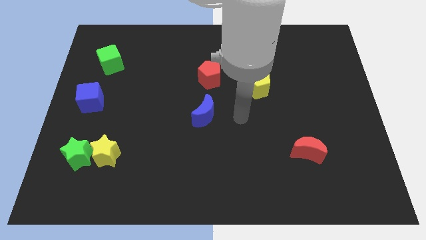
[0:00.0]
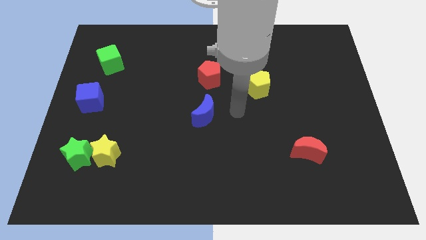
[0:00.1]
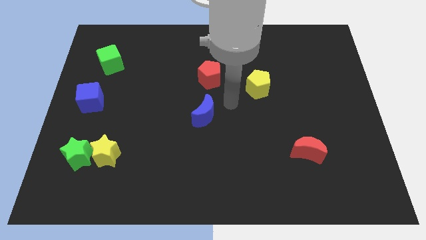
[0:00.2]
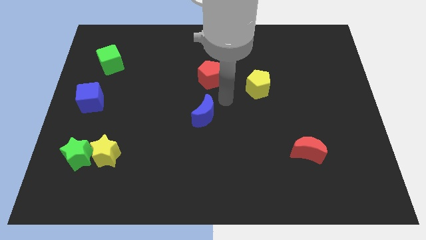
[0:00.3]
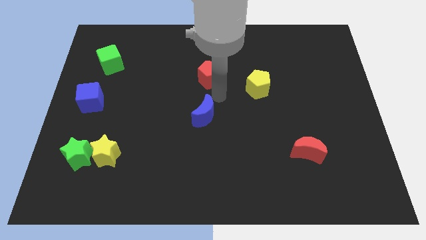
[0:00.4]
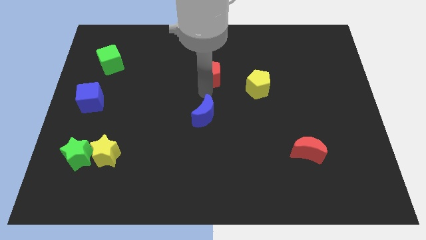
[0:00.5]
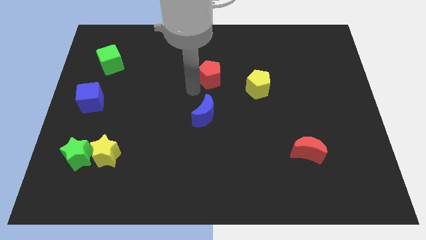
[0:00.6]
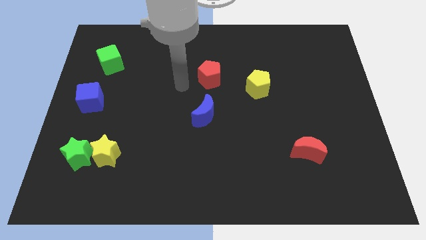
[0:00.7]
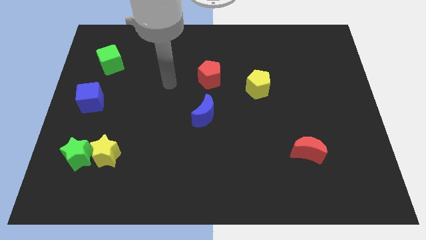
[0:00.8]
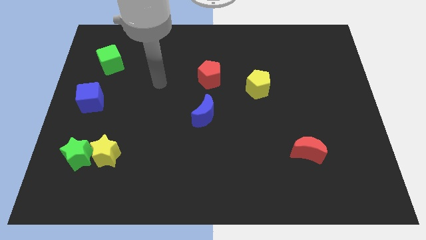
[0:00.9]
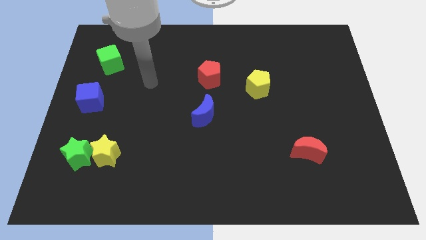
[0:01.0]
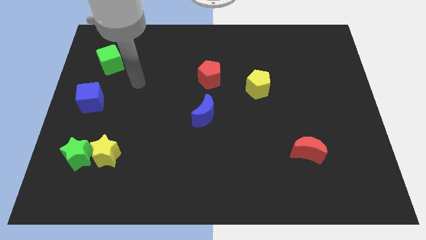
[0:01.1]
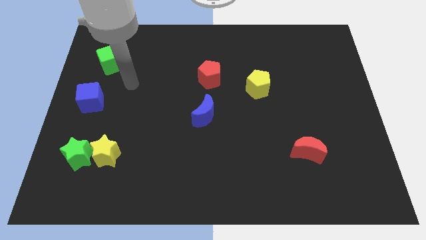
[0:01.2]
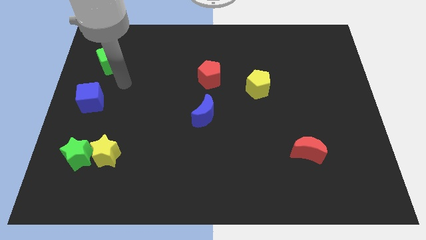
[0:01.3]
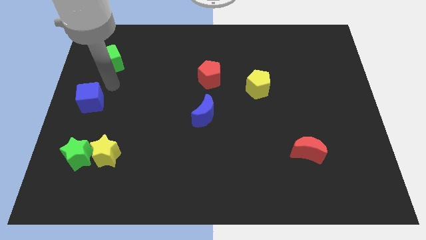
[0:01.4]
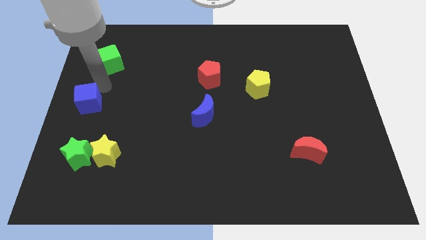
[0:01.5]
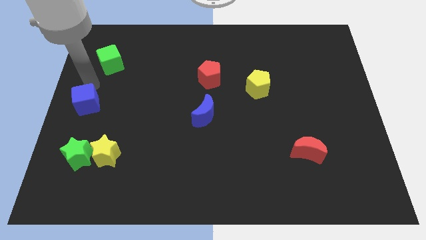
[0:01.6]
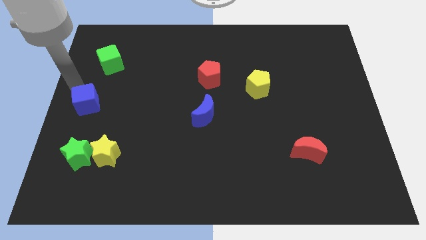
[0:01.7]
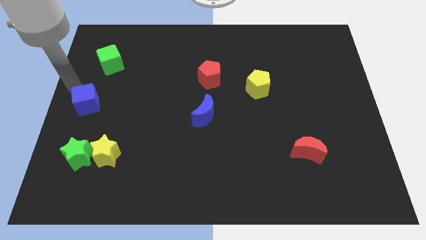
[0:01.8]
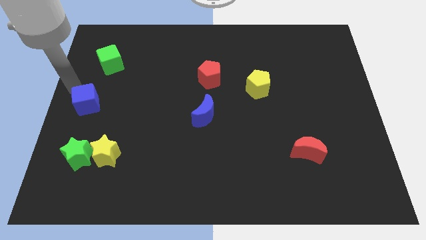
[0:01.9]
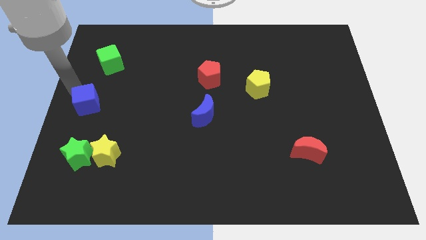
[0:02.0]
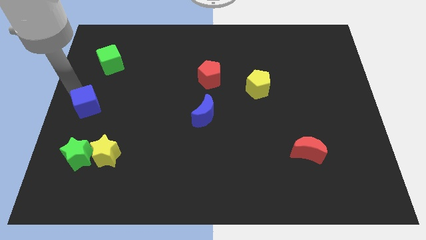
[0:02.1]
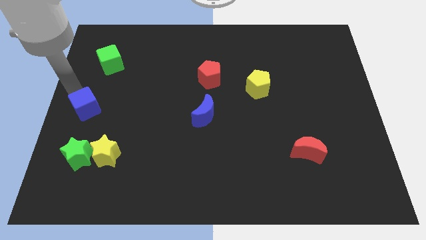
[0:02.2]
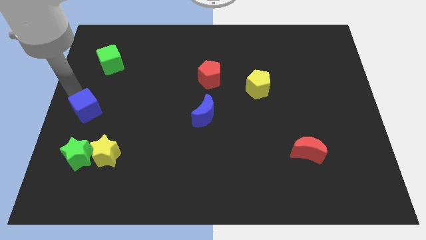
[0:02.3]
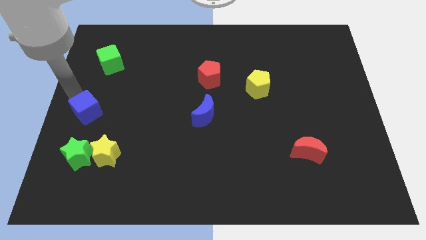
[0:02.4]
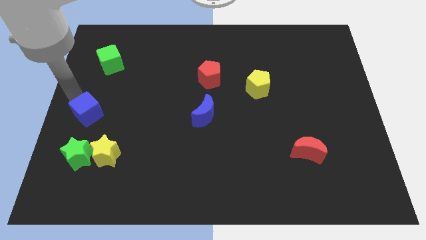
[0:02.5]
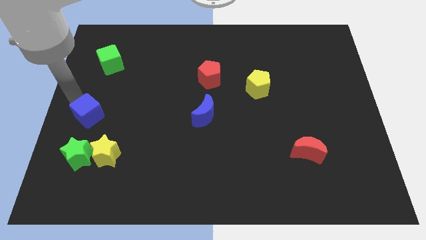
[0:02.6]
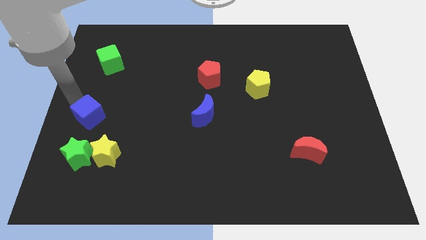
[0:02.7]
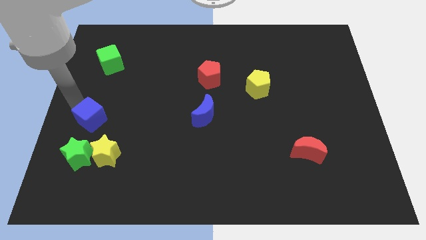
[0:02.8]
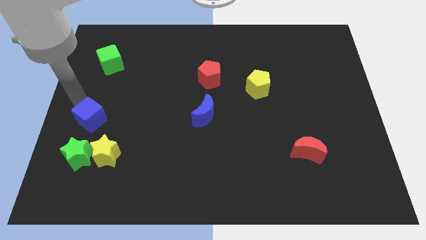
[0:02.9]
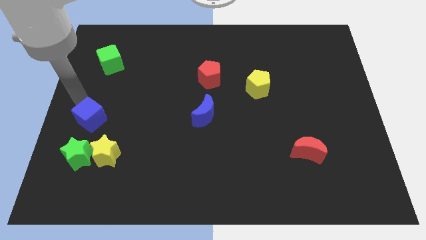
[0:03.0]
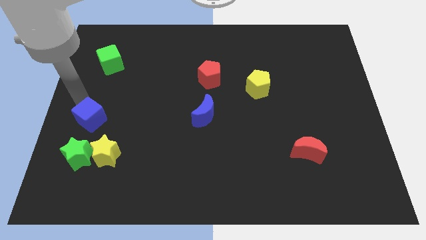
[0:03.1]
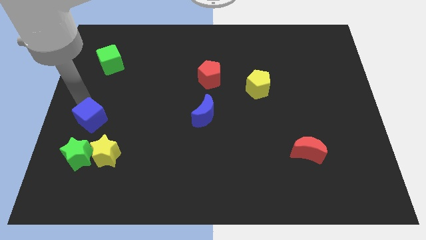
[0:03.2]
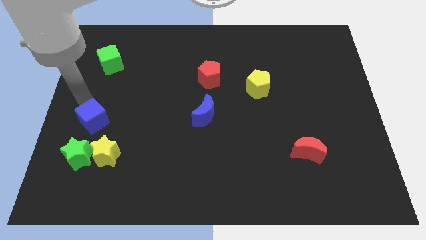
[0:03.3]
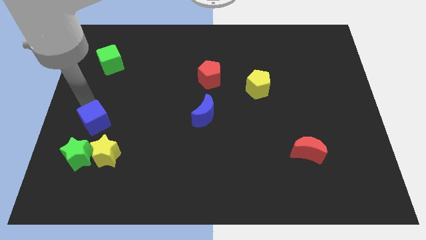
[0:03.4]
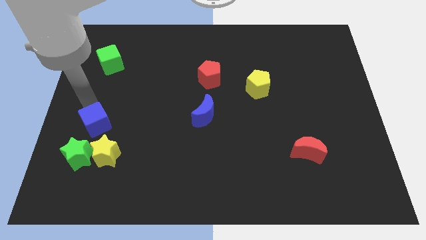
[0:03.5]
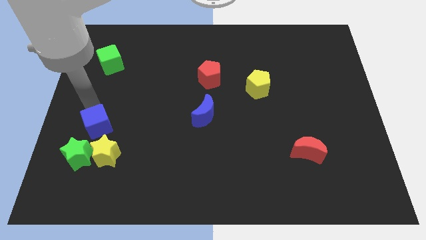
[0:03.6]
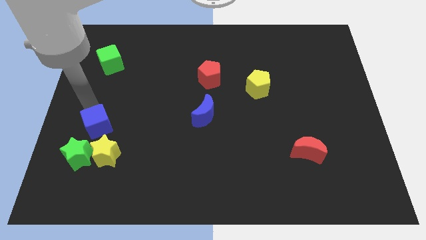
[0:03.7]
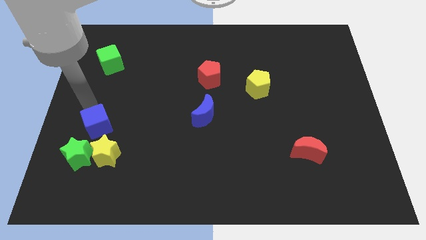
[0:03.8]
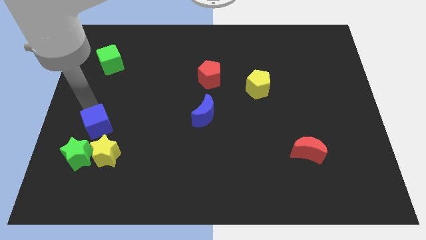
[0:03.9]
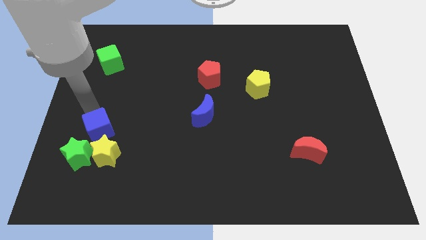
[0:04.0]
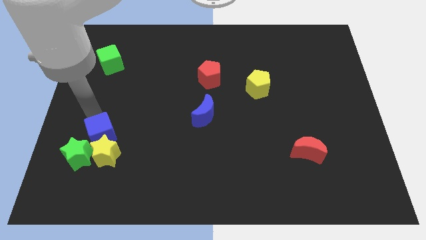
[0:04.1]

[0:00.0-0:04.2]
move the blue cube close to the yellow star

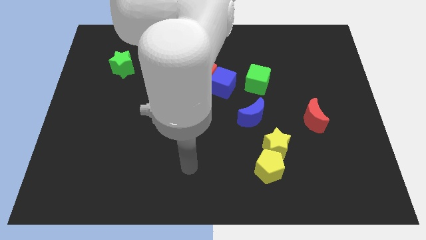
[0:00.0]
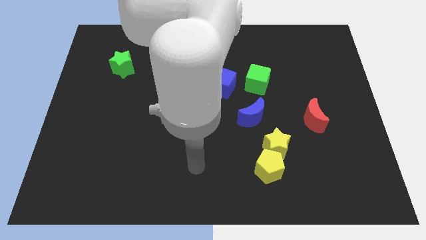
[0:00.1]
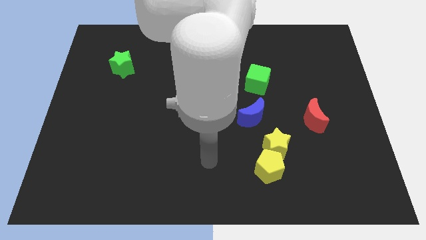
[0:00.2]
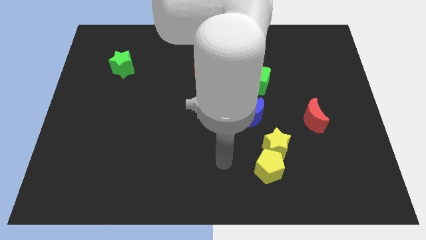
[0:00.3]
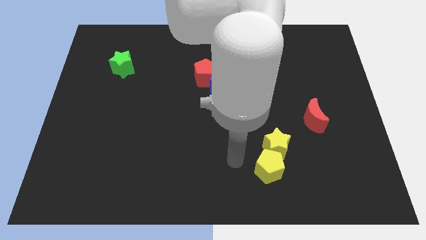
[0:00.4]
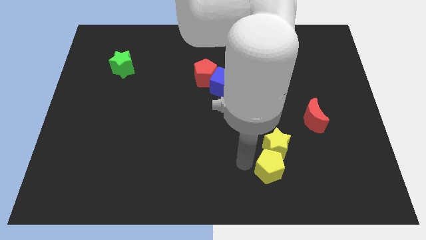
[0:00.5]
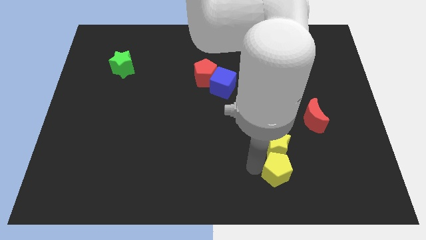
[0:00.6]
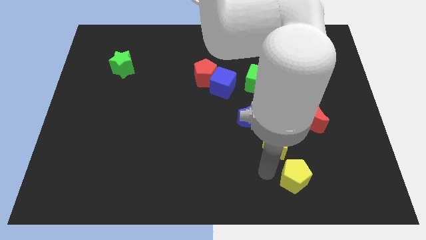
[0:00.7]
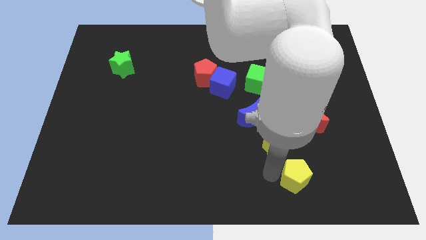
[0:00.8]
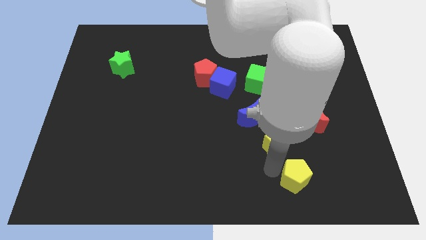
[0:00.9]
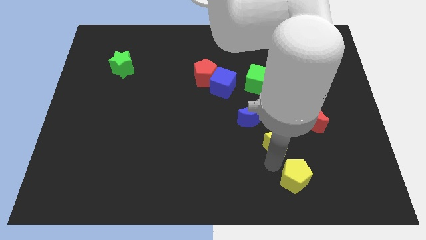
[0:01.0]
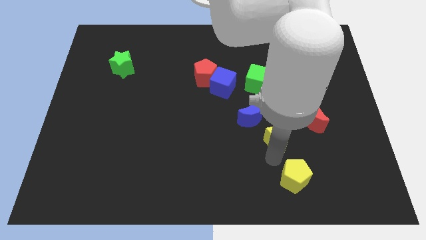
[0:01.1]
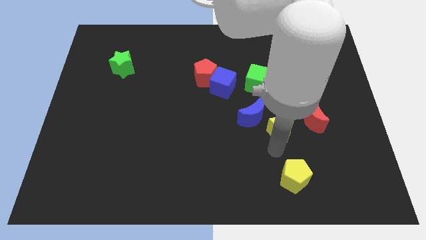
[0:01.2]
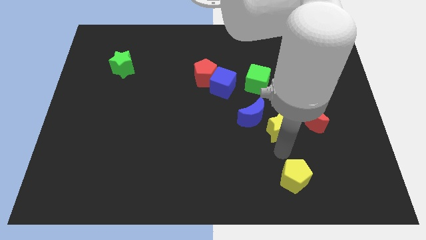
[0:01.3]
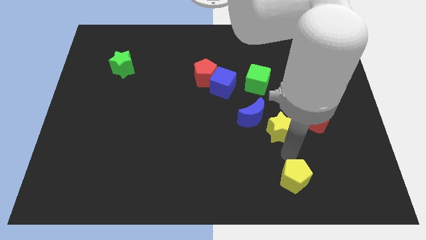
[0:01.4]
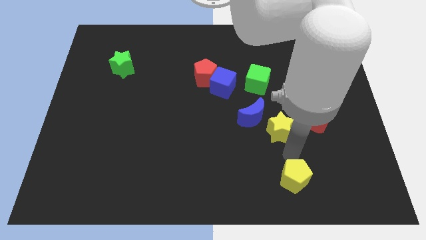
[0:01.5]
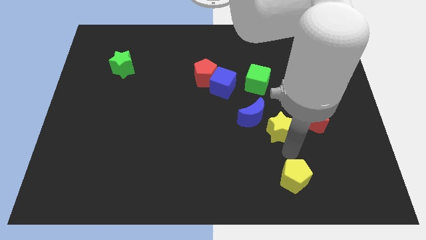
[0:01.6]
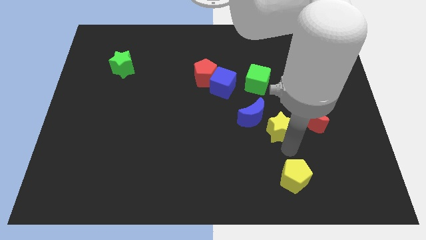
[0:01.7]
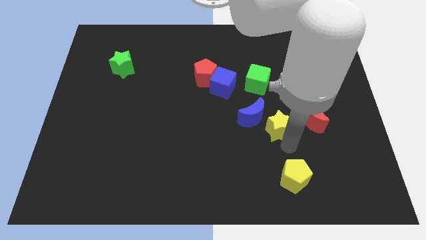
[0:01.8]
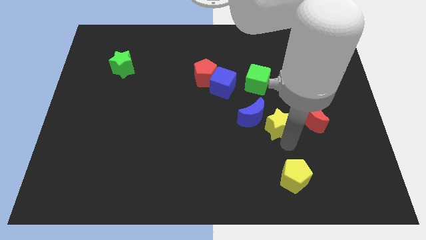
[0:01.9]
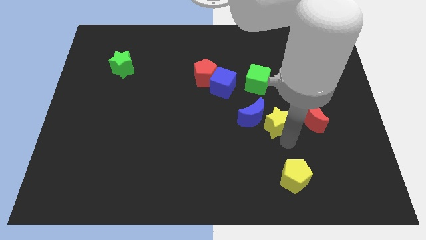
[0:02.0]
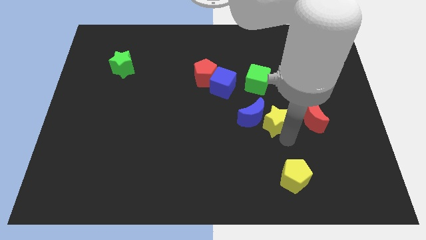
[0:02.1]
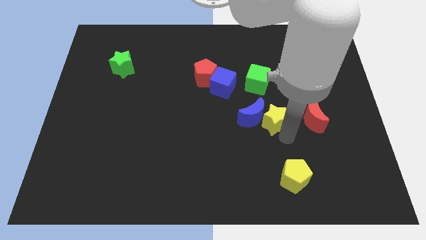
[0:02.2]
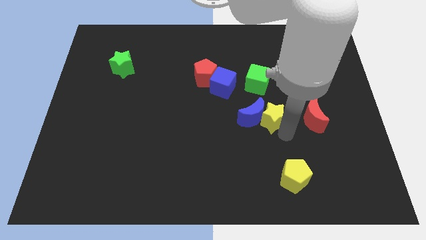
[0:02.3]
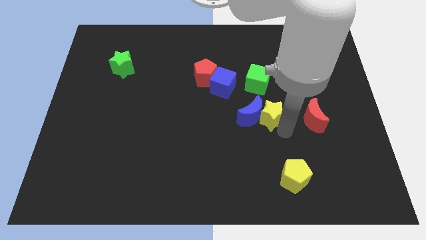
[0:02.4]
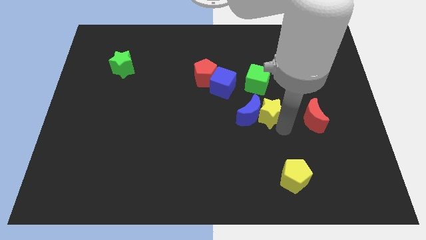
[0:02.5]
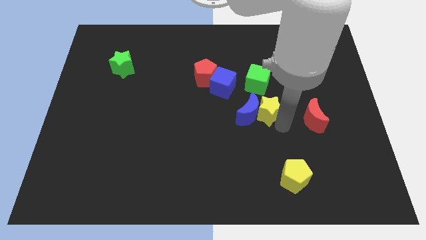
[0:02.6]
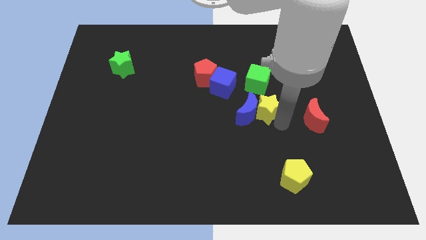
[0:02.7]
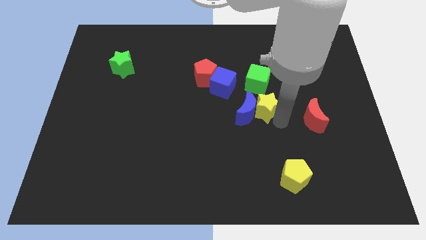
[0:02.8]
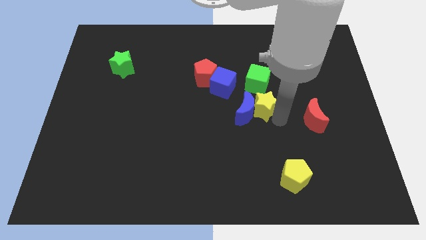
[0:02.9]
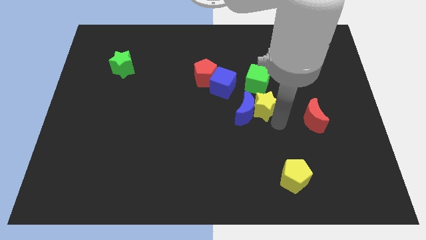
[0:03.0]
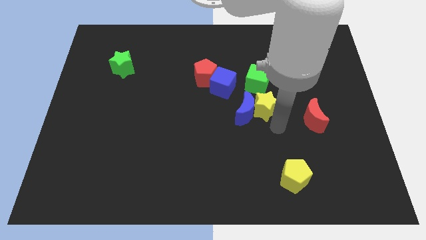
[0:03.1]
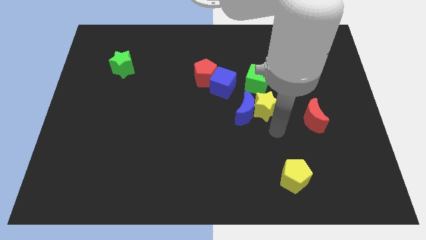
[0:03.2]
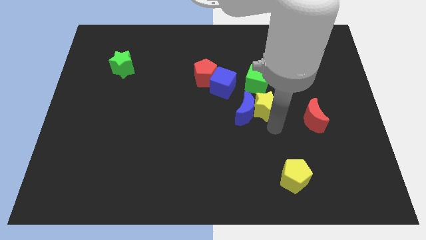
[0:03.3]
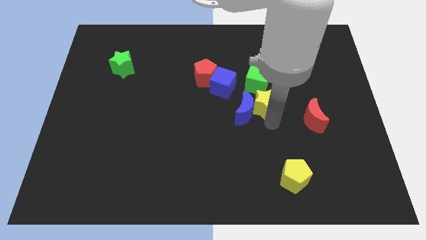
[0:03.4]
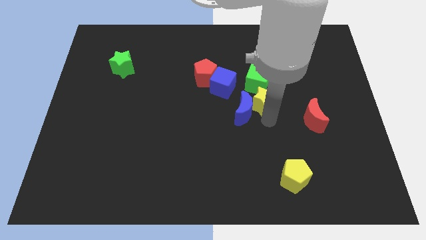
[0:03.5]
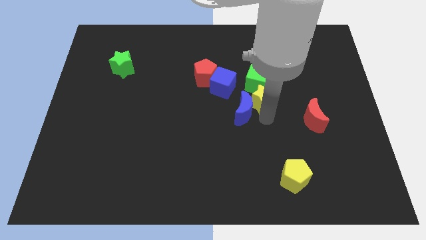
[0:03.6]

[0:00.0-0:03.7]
put the yellow star close to the green cube
